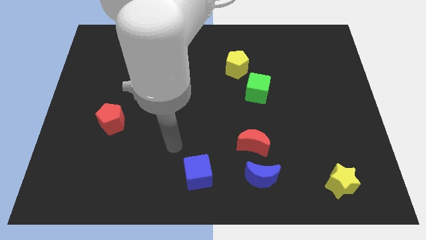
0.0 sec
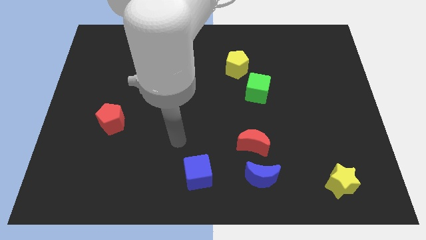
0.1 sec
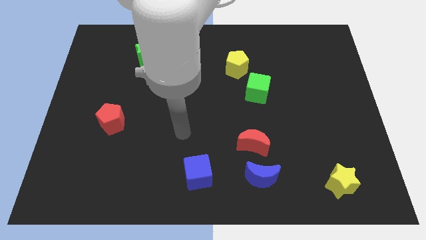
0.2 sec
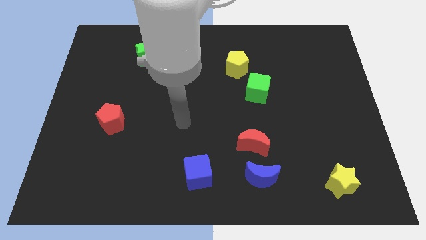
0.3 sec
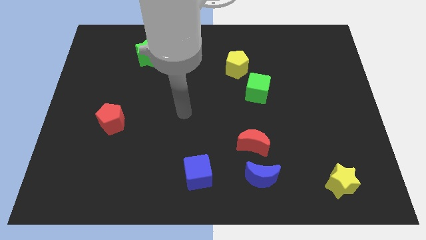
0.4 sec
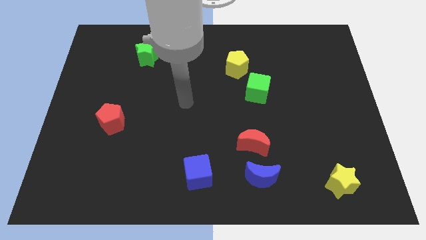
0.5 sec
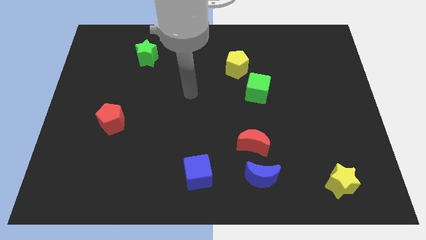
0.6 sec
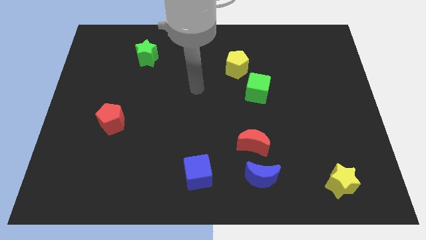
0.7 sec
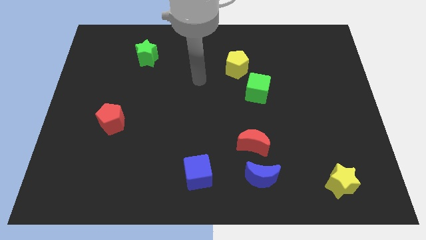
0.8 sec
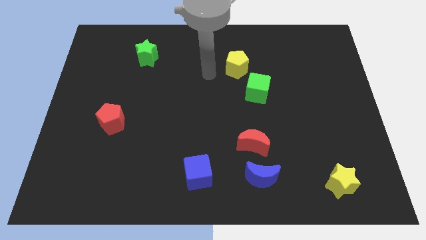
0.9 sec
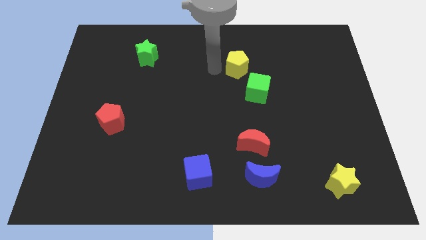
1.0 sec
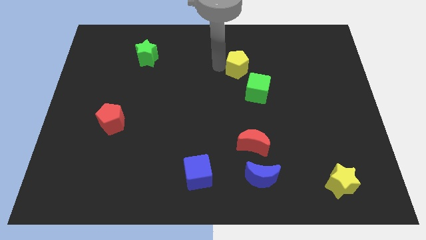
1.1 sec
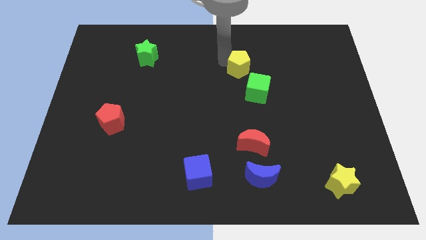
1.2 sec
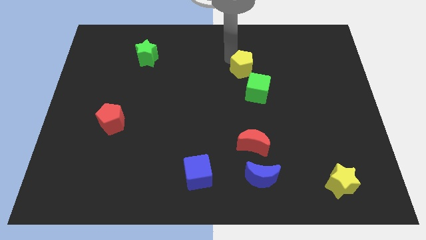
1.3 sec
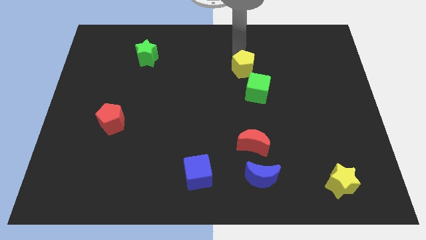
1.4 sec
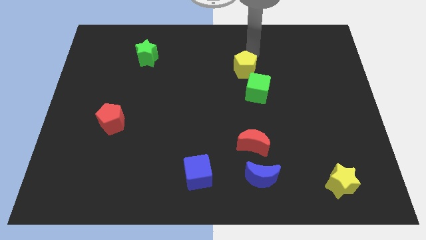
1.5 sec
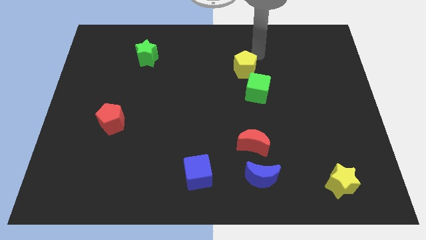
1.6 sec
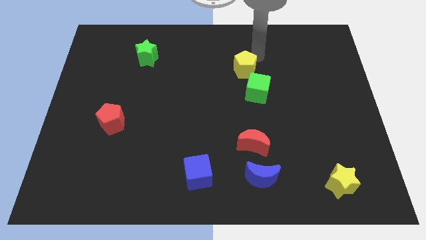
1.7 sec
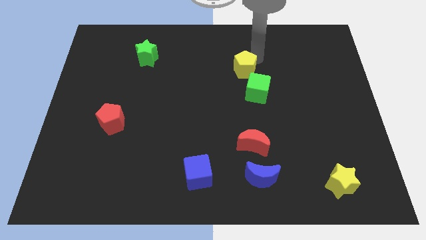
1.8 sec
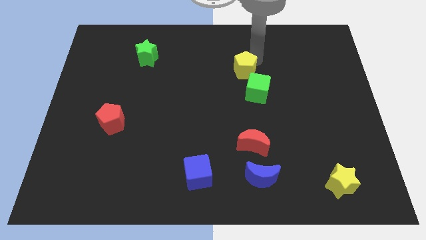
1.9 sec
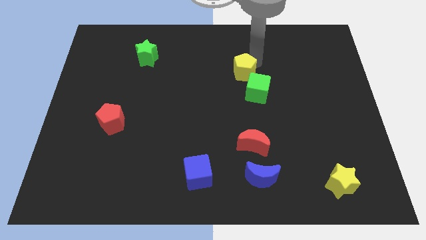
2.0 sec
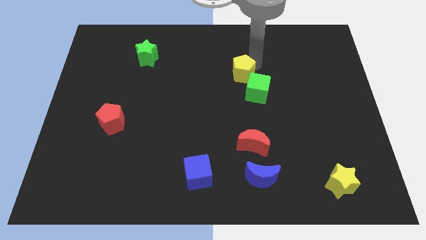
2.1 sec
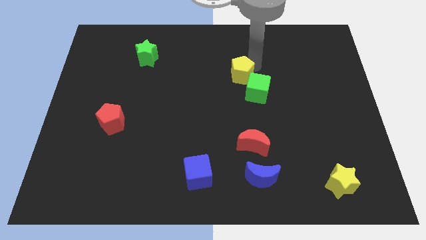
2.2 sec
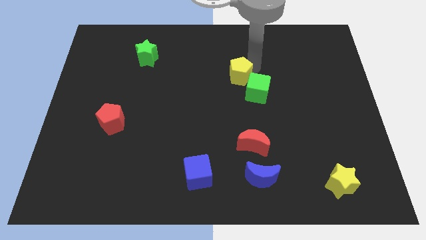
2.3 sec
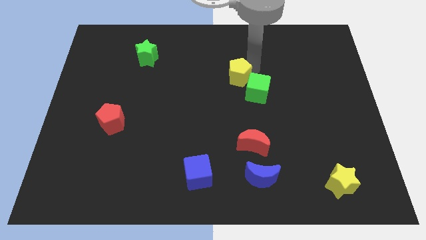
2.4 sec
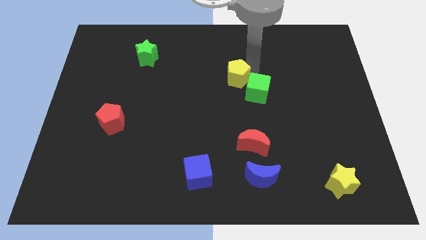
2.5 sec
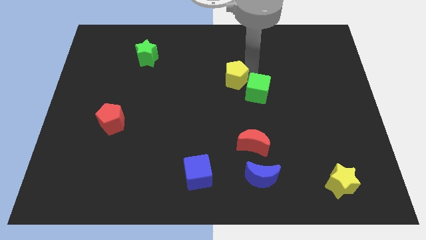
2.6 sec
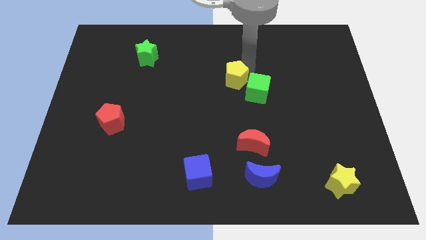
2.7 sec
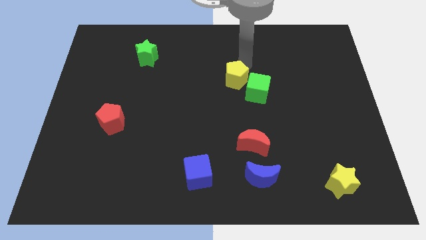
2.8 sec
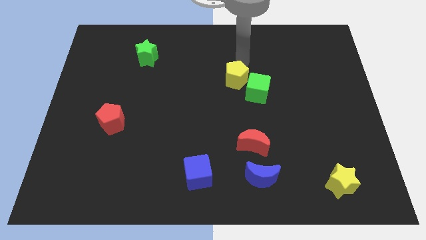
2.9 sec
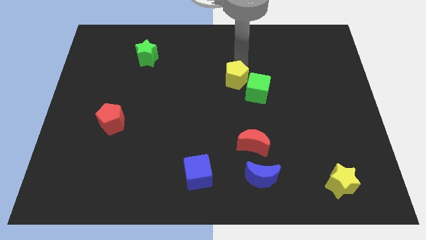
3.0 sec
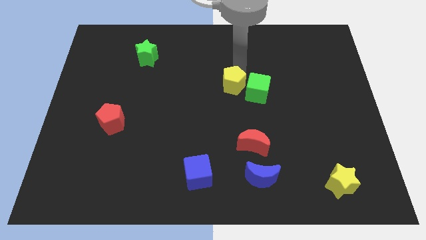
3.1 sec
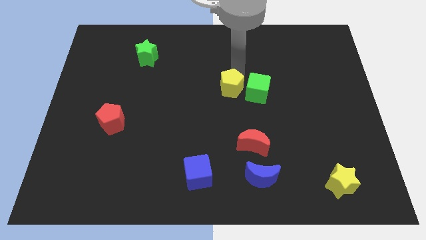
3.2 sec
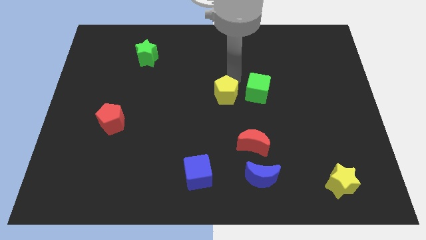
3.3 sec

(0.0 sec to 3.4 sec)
push the yellow pentagon a little downwards

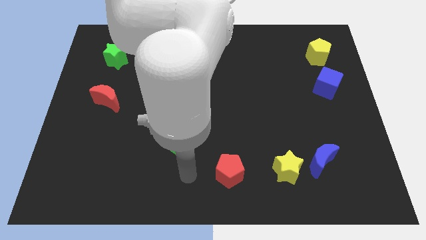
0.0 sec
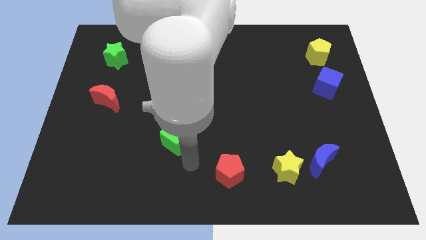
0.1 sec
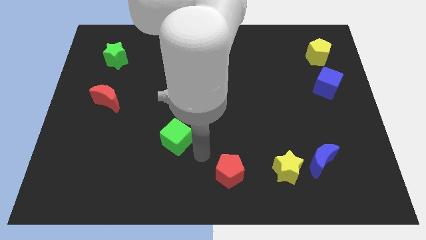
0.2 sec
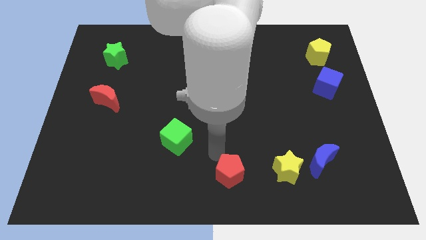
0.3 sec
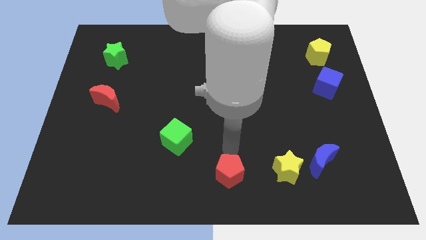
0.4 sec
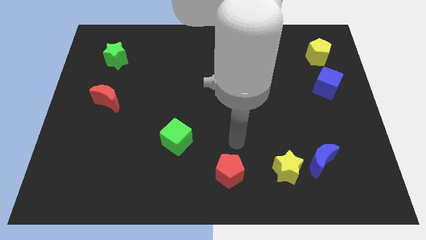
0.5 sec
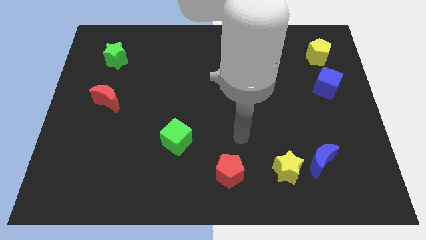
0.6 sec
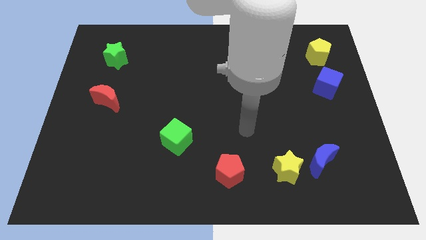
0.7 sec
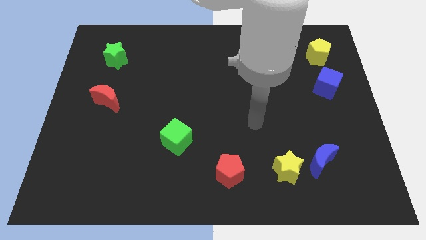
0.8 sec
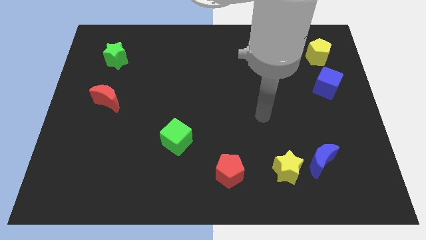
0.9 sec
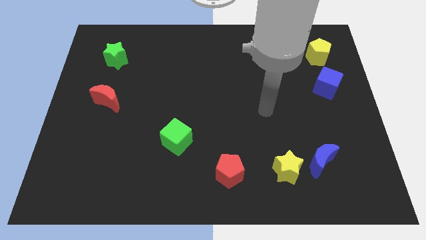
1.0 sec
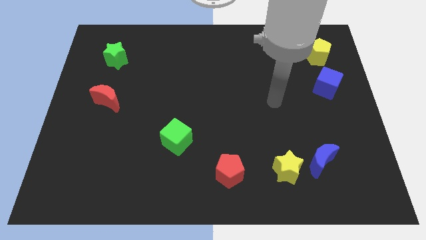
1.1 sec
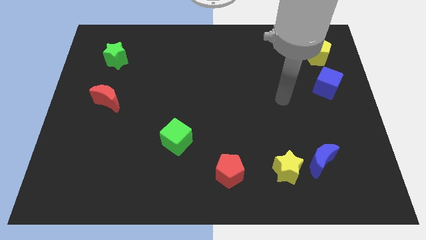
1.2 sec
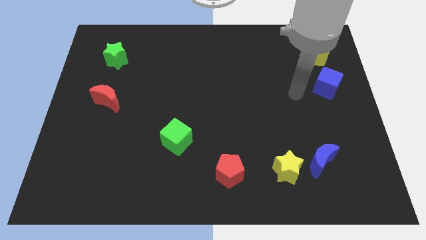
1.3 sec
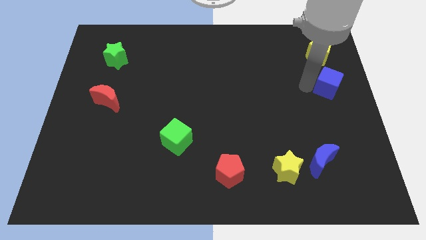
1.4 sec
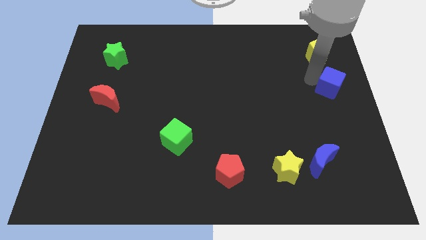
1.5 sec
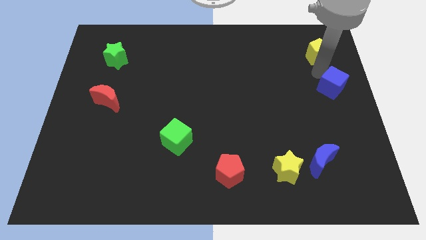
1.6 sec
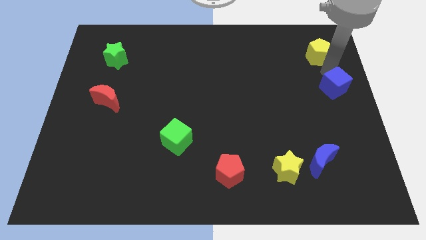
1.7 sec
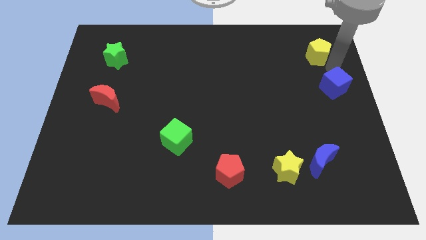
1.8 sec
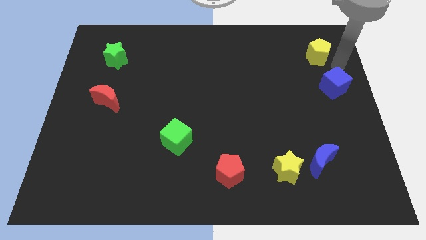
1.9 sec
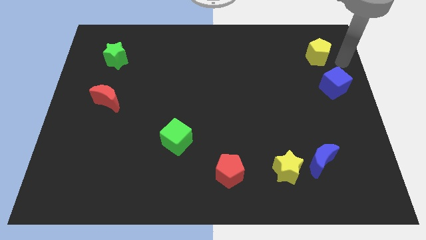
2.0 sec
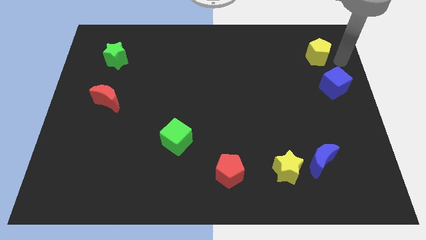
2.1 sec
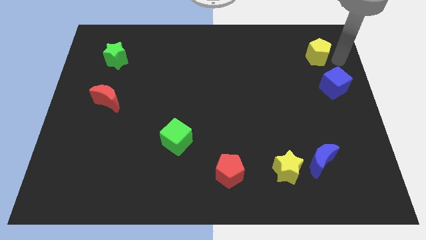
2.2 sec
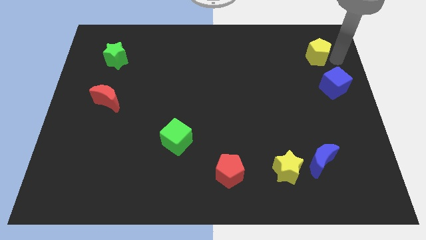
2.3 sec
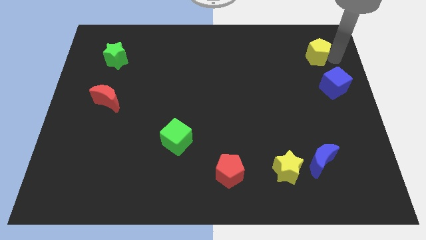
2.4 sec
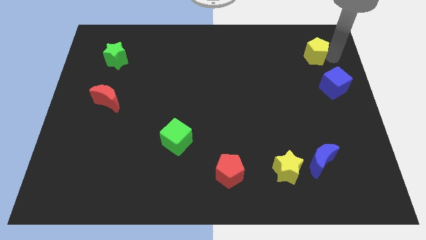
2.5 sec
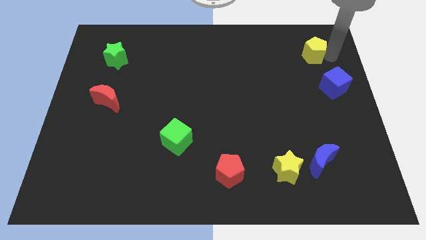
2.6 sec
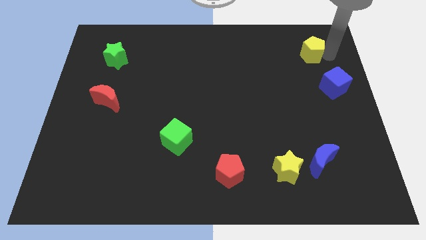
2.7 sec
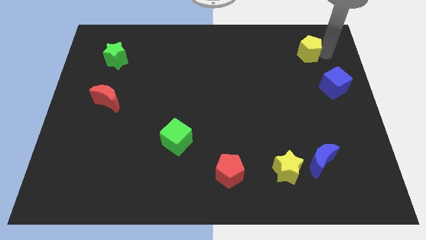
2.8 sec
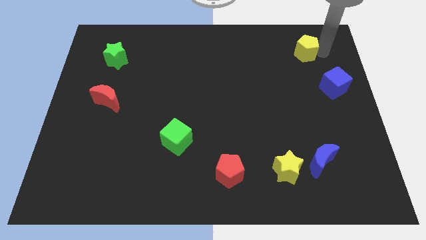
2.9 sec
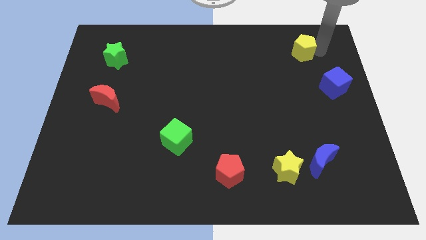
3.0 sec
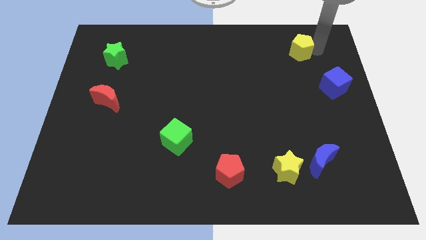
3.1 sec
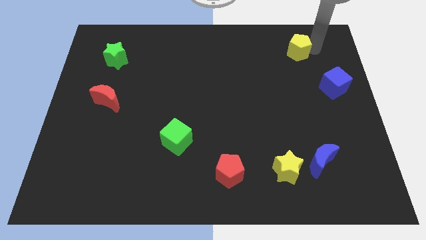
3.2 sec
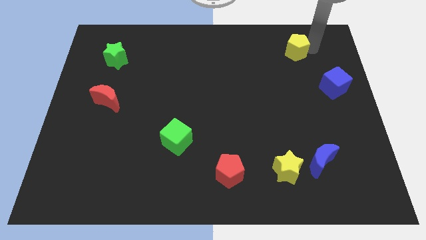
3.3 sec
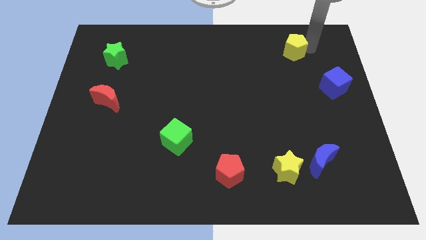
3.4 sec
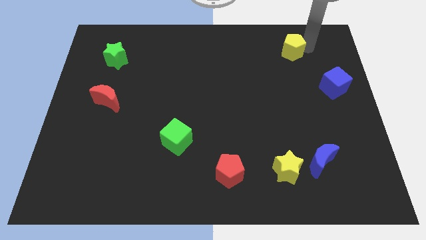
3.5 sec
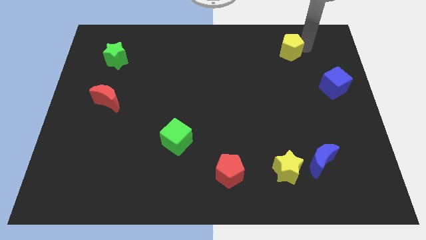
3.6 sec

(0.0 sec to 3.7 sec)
move the yellow pentagon to the left slightly

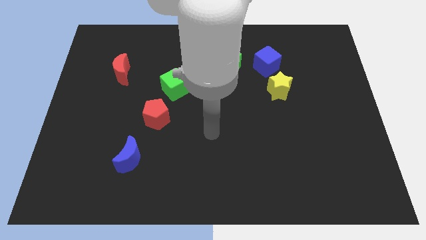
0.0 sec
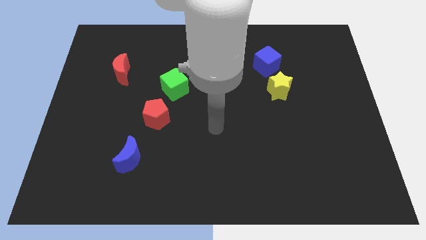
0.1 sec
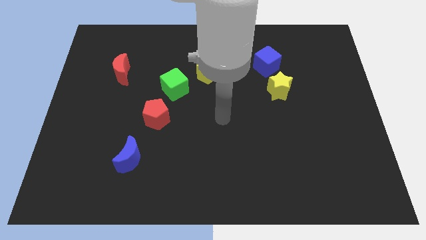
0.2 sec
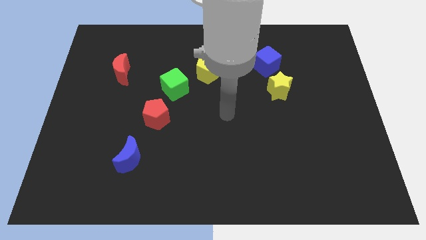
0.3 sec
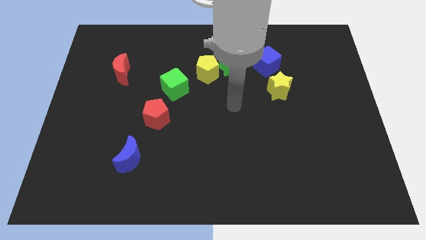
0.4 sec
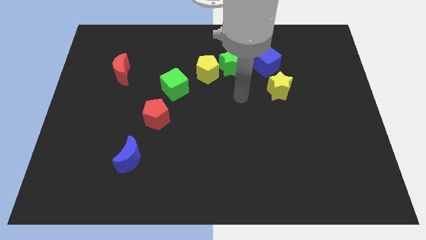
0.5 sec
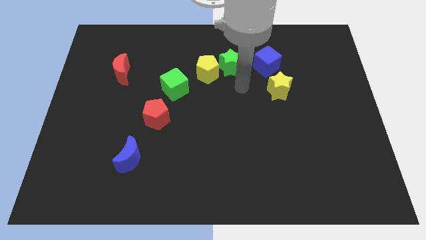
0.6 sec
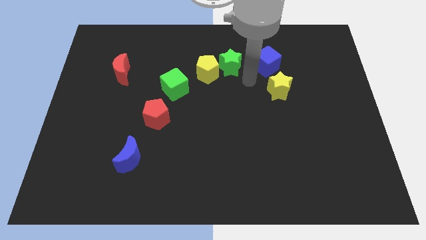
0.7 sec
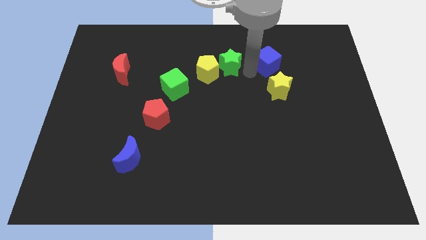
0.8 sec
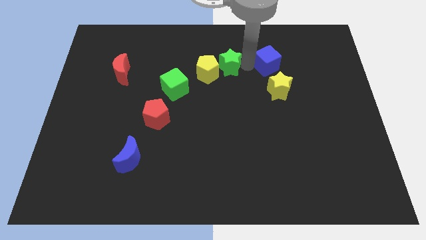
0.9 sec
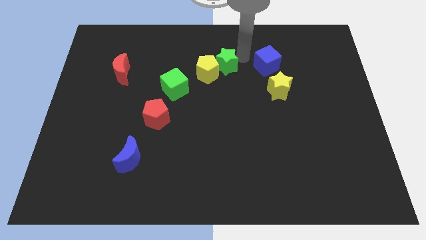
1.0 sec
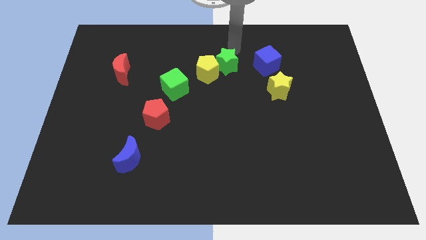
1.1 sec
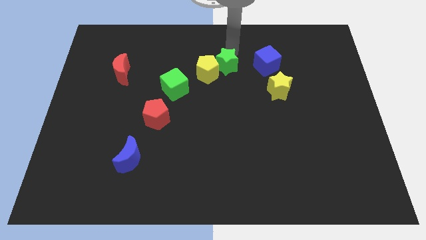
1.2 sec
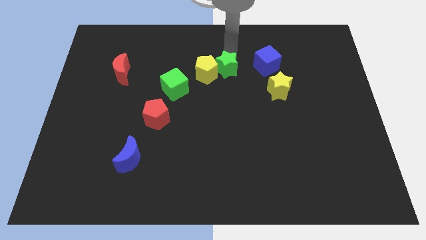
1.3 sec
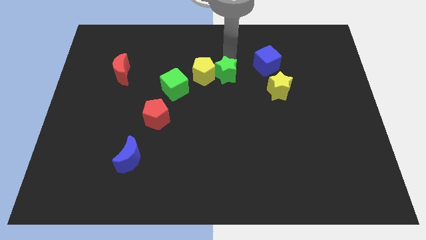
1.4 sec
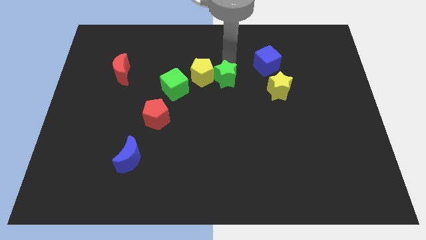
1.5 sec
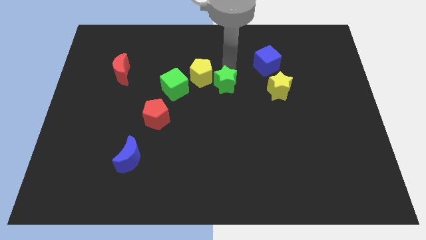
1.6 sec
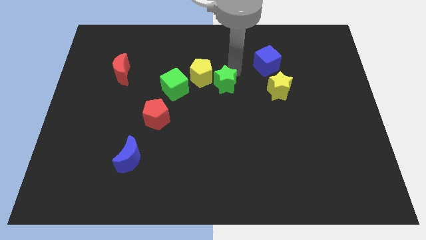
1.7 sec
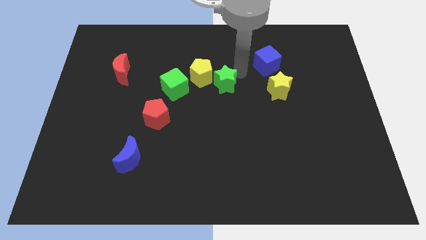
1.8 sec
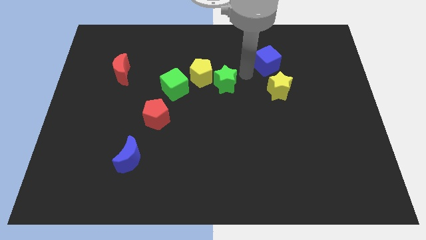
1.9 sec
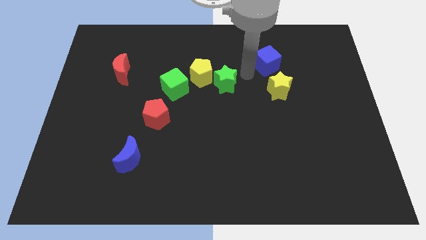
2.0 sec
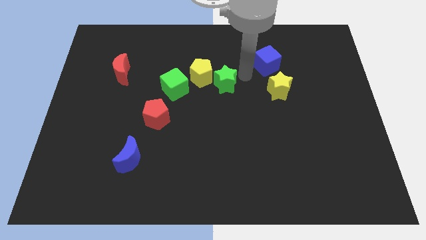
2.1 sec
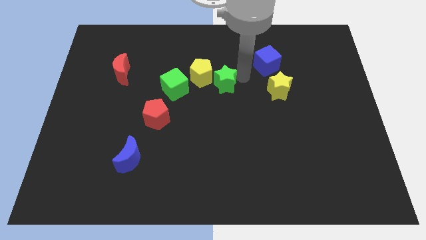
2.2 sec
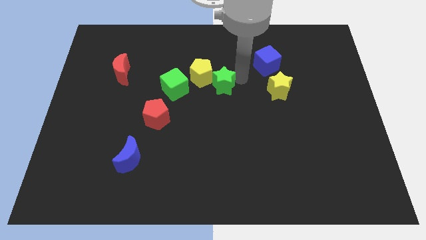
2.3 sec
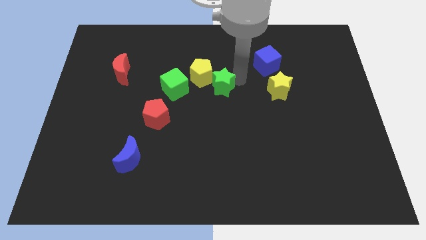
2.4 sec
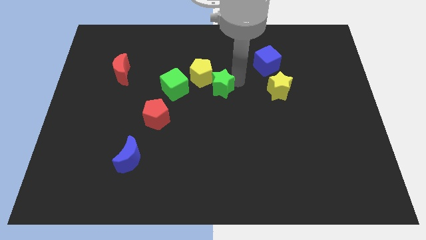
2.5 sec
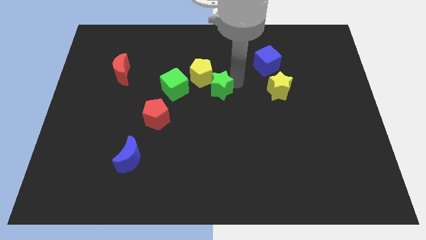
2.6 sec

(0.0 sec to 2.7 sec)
push the green star a little bit down and left diagonally
